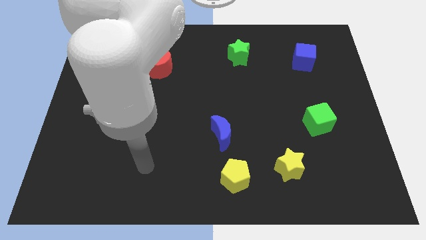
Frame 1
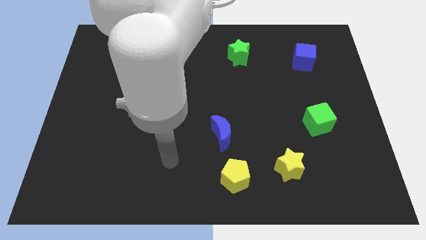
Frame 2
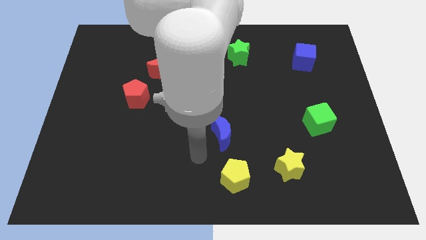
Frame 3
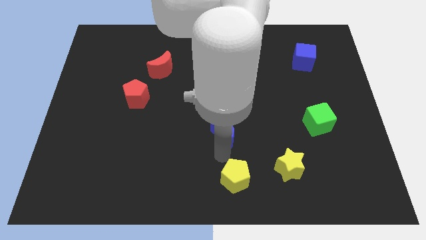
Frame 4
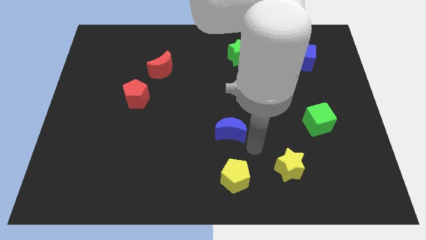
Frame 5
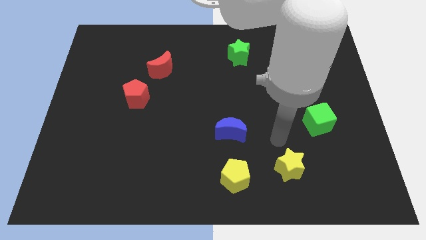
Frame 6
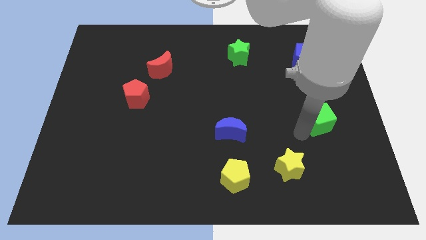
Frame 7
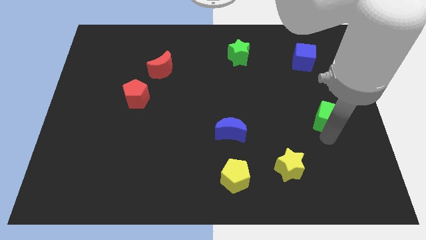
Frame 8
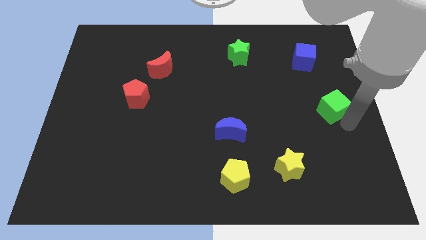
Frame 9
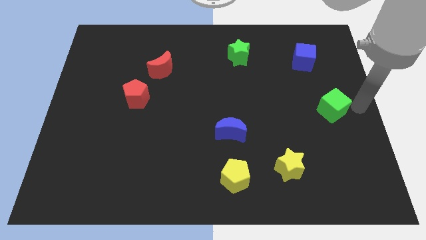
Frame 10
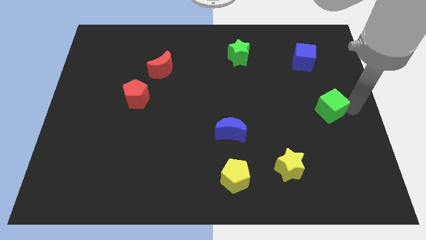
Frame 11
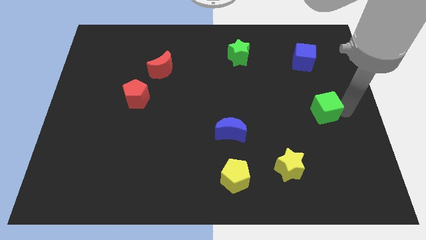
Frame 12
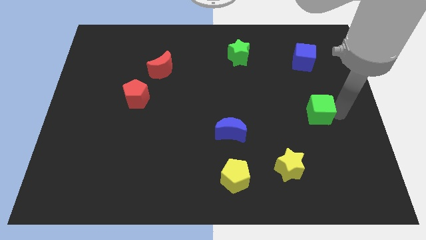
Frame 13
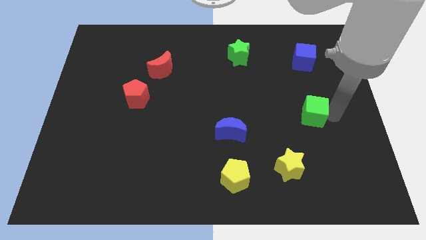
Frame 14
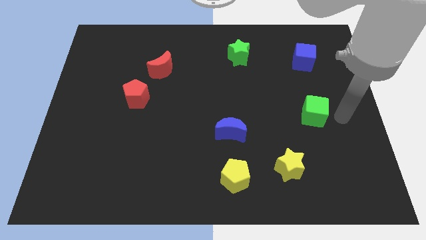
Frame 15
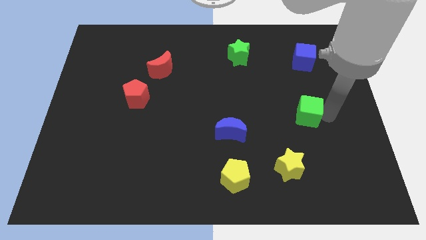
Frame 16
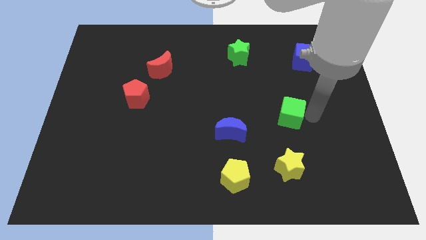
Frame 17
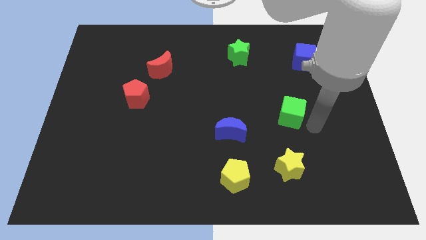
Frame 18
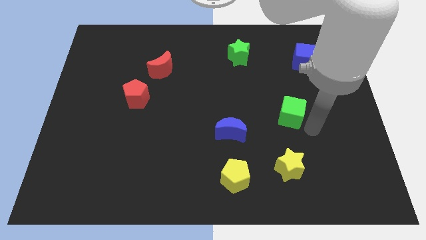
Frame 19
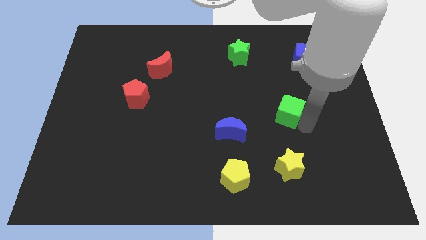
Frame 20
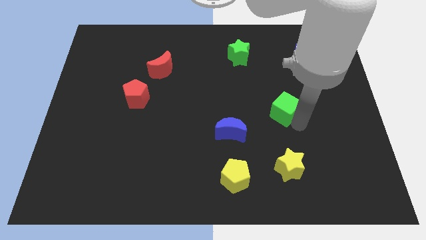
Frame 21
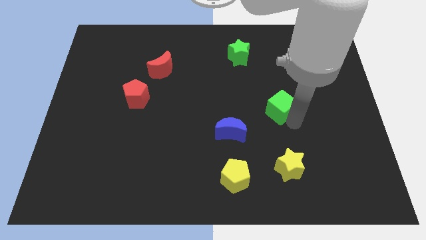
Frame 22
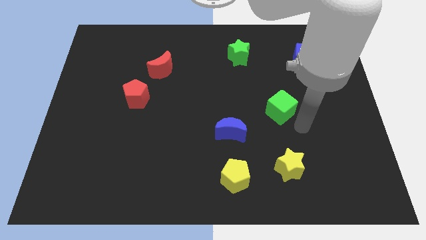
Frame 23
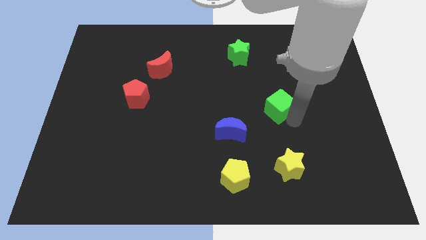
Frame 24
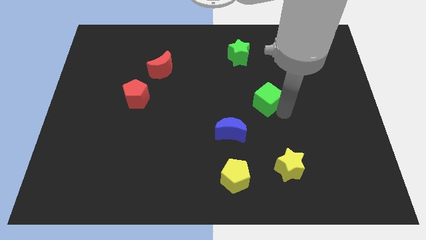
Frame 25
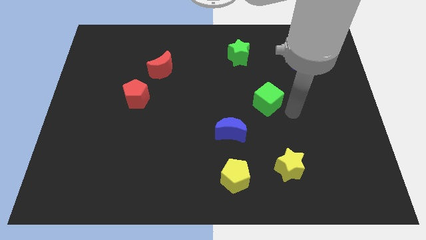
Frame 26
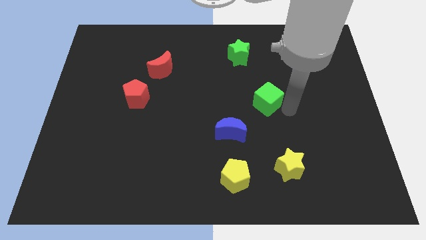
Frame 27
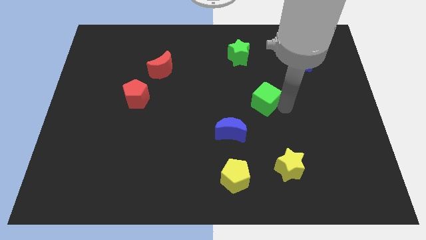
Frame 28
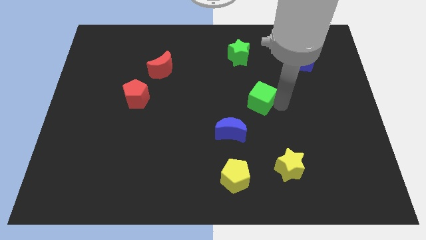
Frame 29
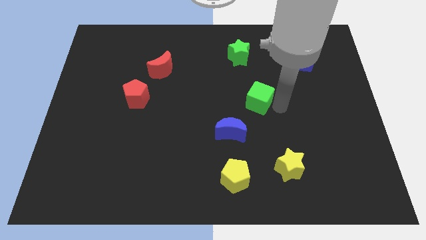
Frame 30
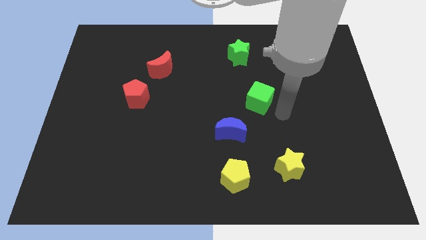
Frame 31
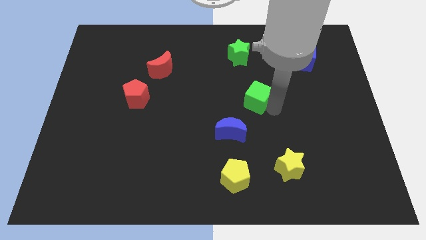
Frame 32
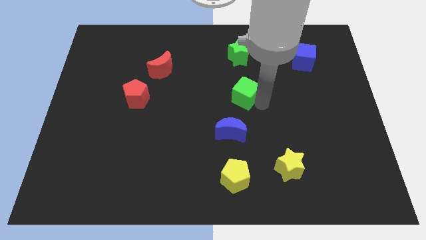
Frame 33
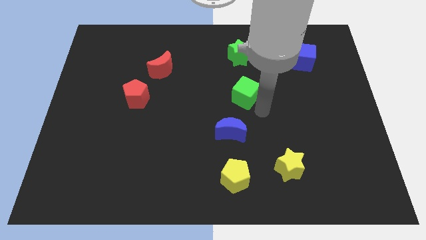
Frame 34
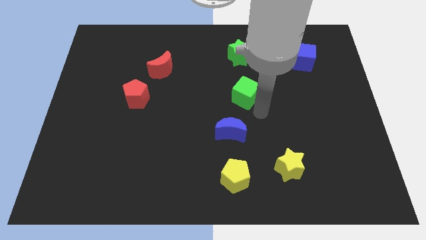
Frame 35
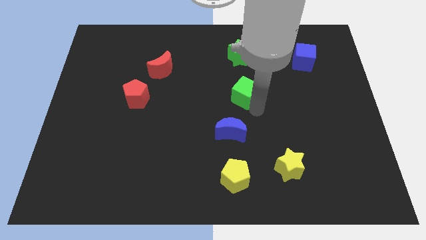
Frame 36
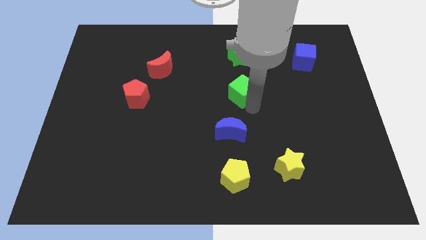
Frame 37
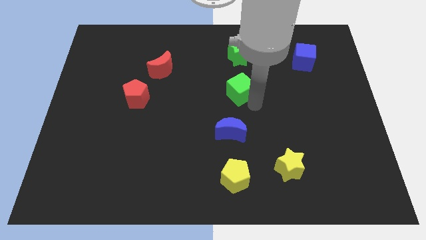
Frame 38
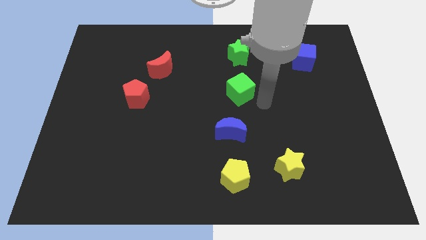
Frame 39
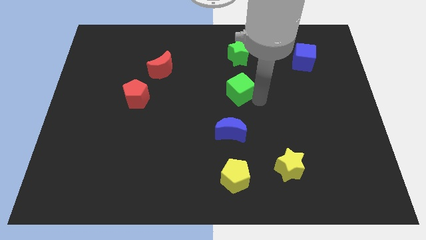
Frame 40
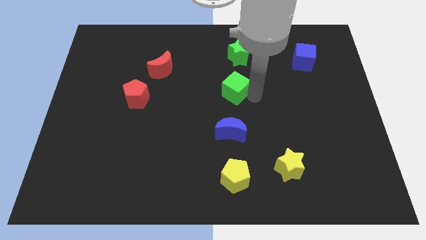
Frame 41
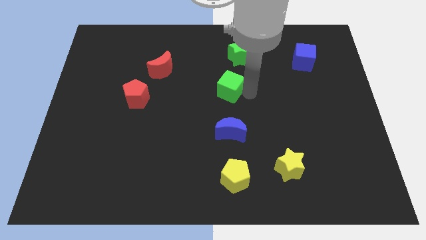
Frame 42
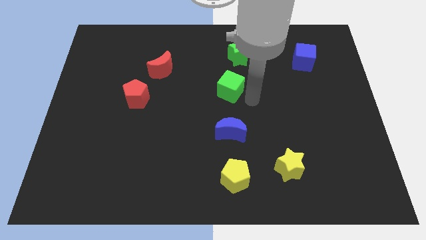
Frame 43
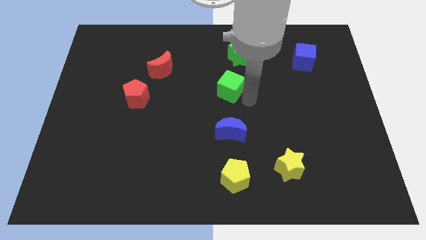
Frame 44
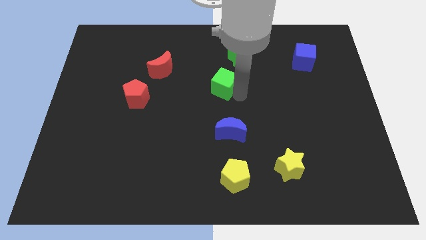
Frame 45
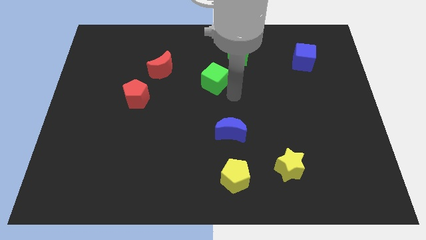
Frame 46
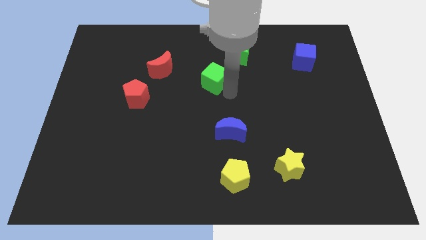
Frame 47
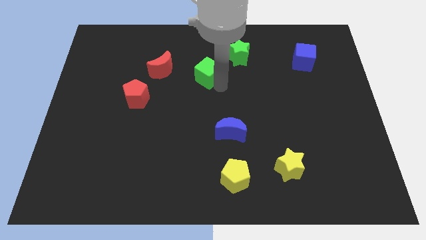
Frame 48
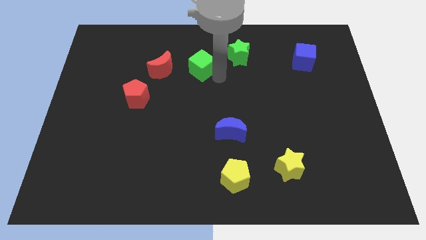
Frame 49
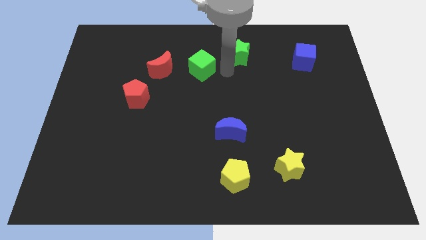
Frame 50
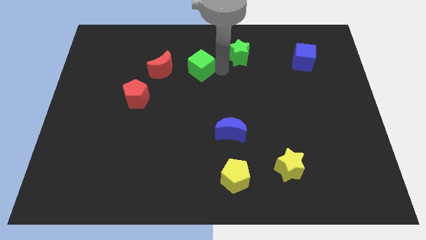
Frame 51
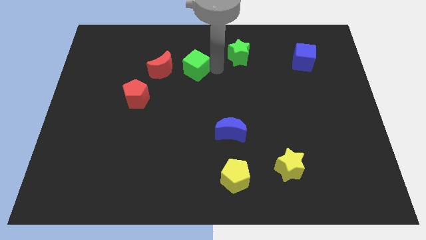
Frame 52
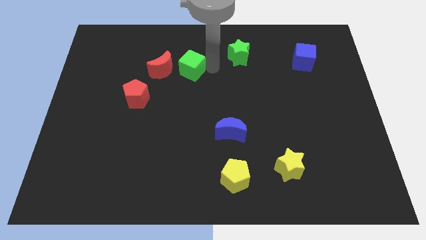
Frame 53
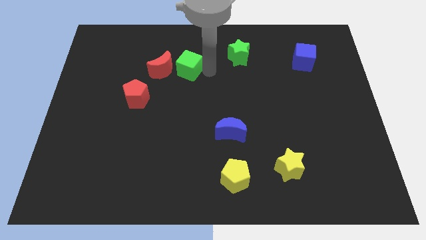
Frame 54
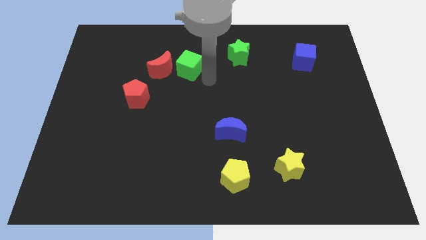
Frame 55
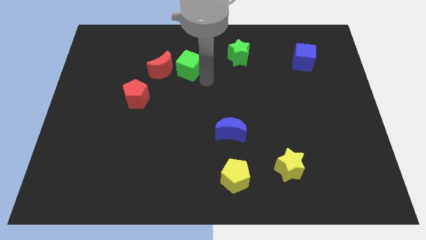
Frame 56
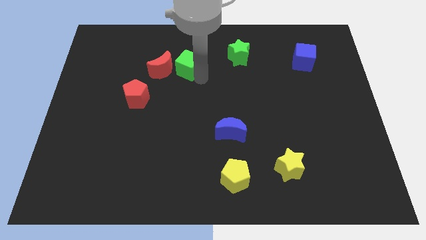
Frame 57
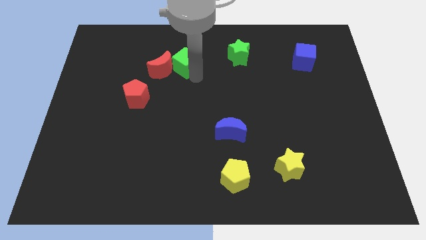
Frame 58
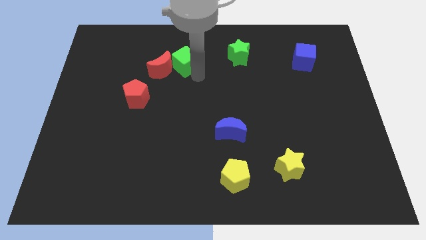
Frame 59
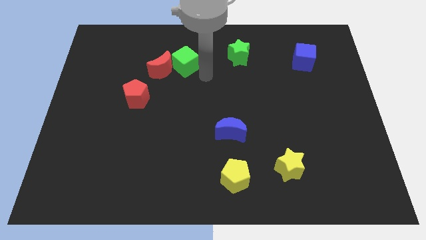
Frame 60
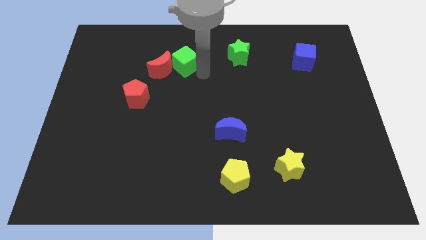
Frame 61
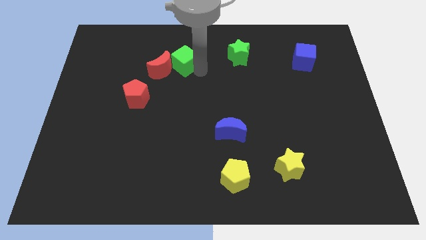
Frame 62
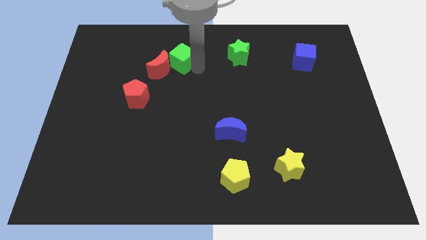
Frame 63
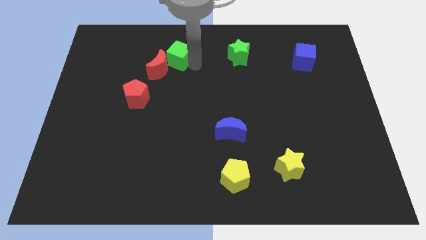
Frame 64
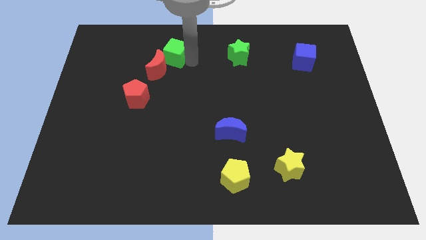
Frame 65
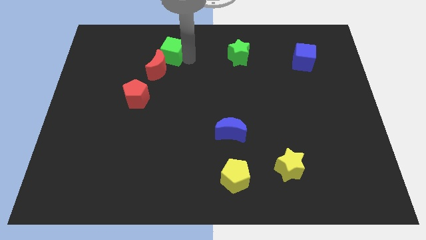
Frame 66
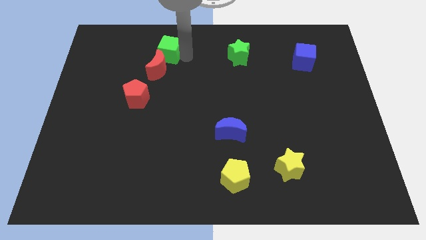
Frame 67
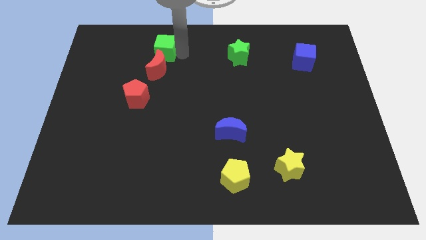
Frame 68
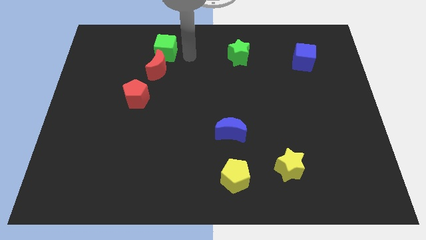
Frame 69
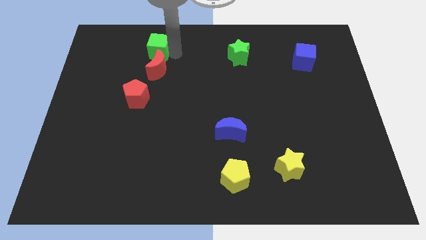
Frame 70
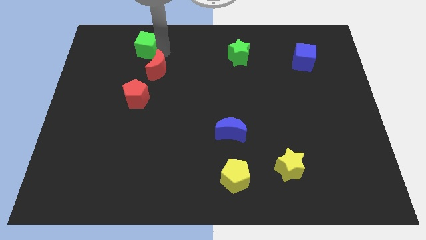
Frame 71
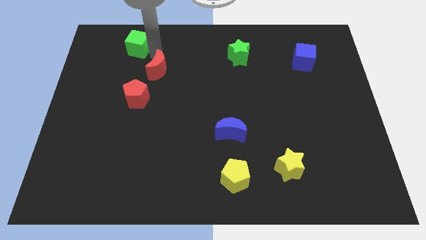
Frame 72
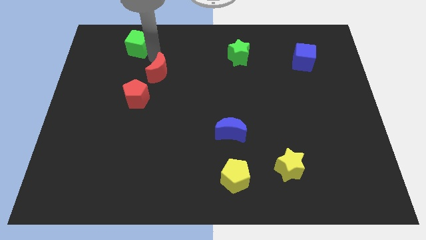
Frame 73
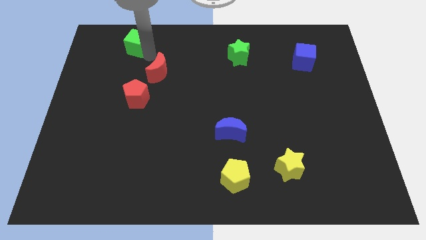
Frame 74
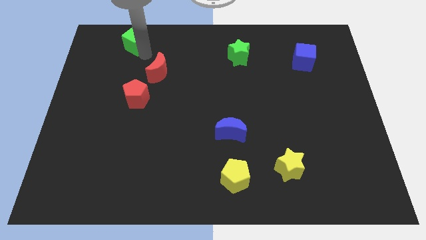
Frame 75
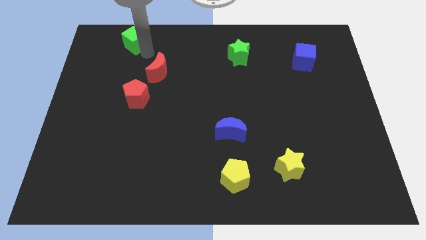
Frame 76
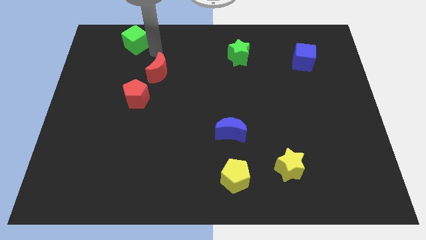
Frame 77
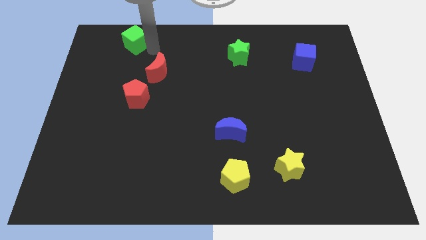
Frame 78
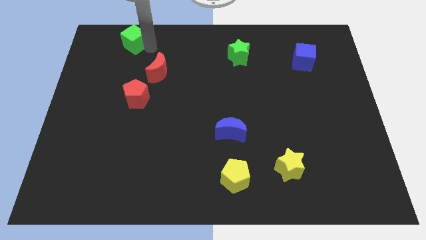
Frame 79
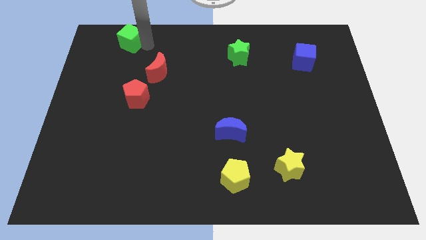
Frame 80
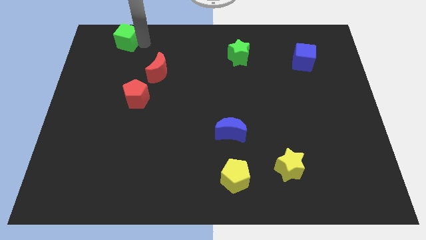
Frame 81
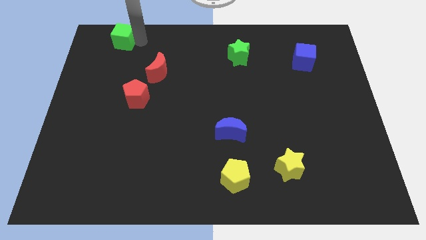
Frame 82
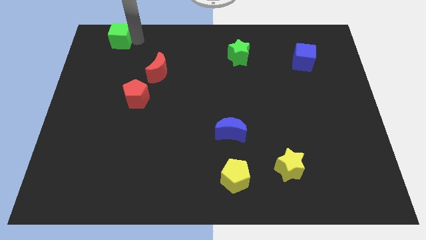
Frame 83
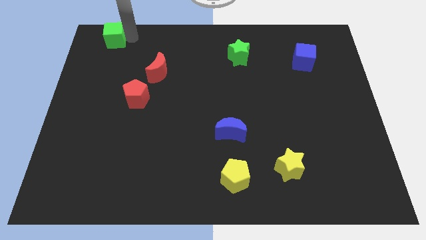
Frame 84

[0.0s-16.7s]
put the green cube to the top left corner
